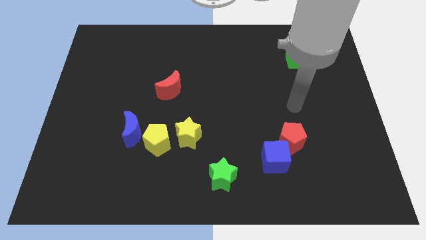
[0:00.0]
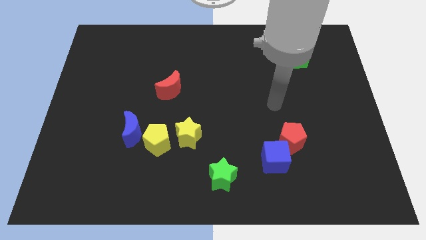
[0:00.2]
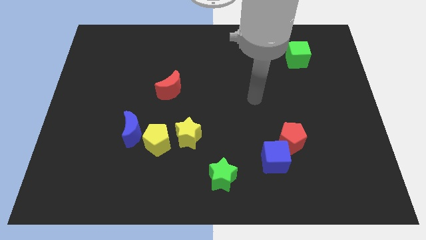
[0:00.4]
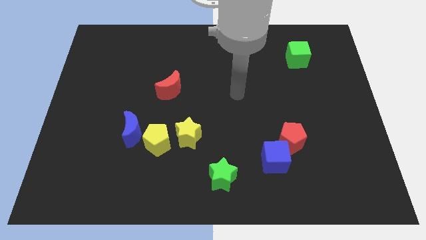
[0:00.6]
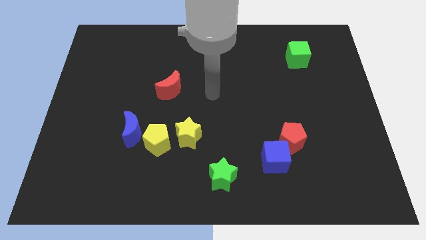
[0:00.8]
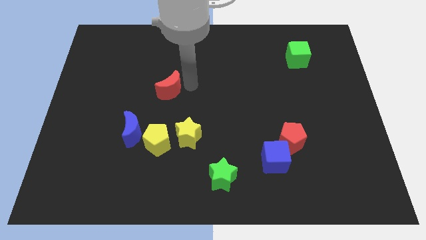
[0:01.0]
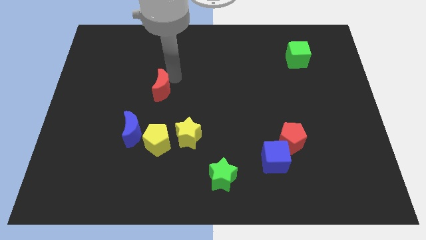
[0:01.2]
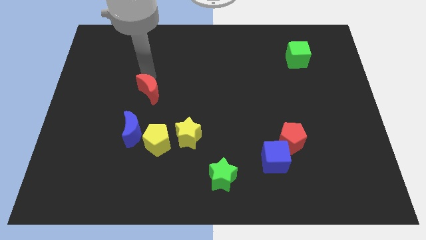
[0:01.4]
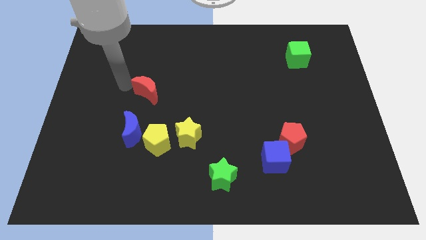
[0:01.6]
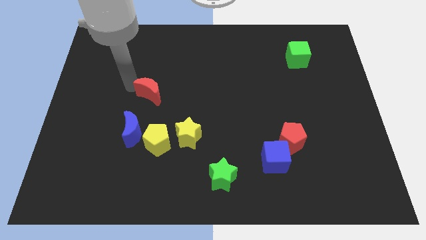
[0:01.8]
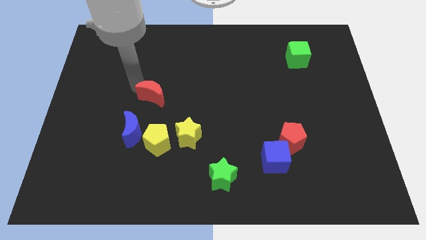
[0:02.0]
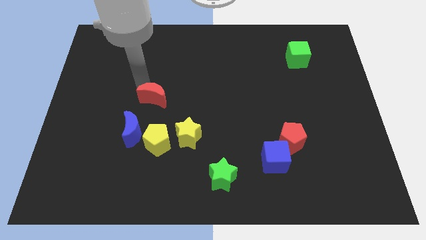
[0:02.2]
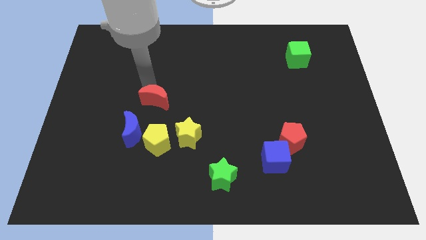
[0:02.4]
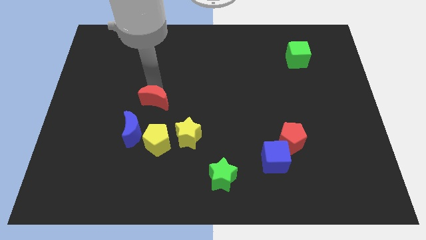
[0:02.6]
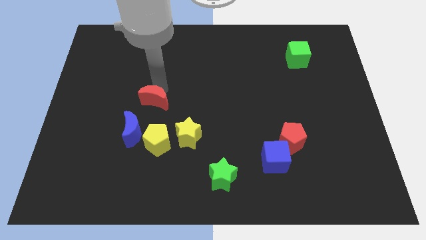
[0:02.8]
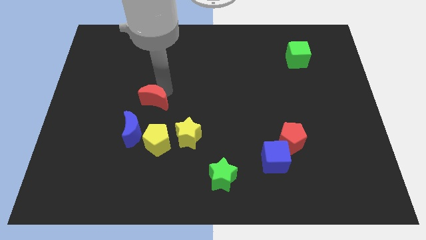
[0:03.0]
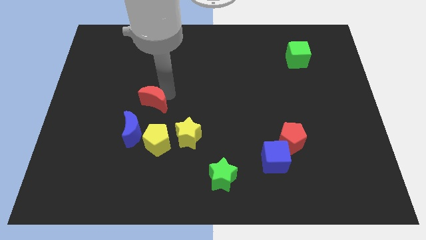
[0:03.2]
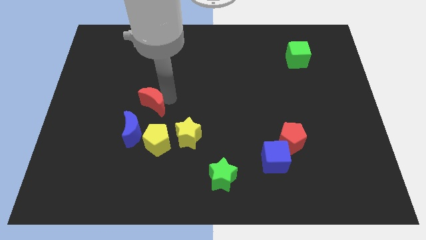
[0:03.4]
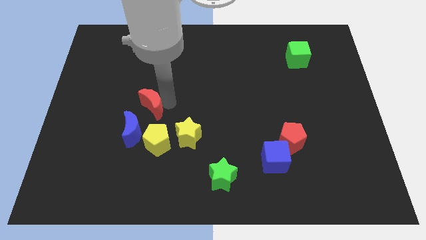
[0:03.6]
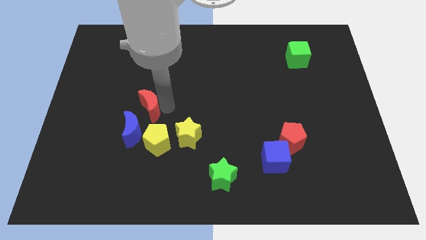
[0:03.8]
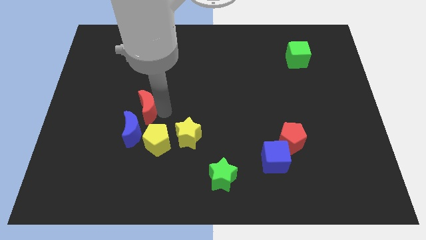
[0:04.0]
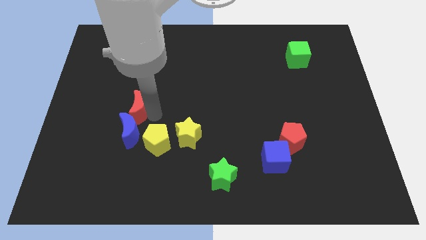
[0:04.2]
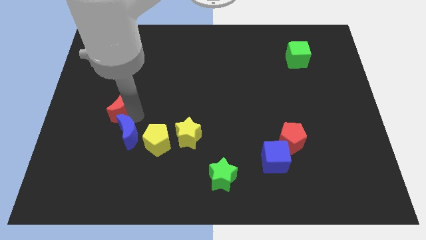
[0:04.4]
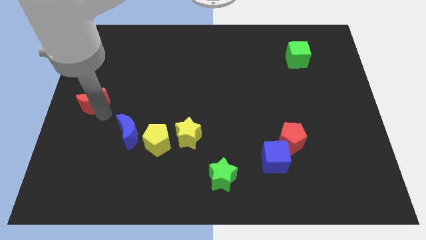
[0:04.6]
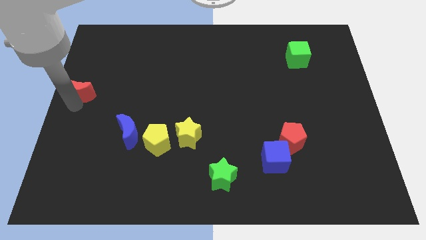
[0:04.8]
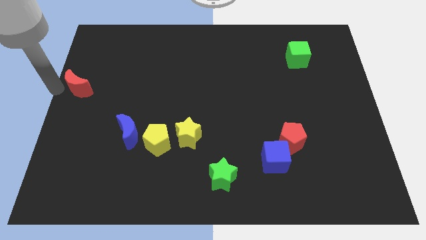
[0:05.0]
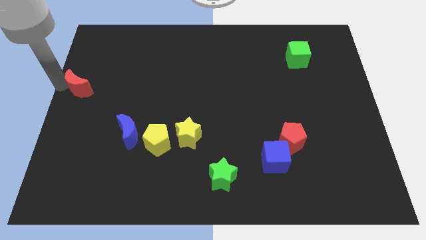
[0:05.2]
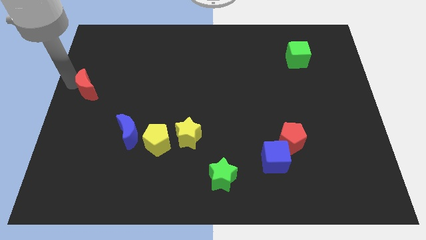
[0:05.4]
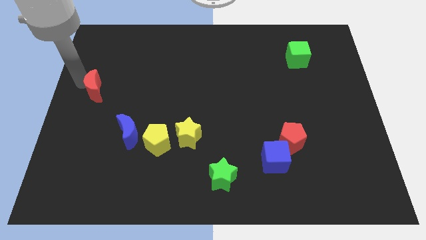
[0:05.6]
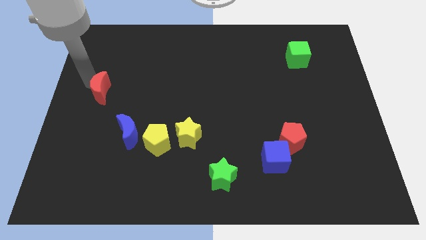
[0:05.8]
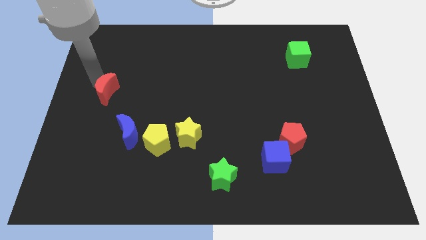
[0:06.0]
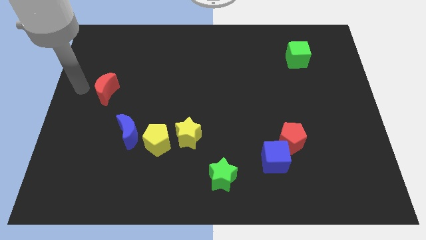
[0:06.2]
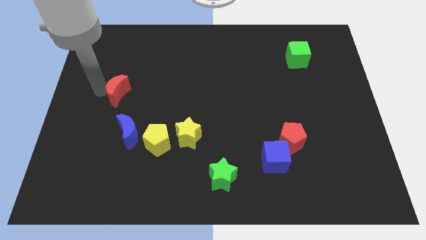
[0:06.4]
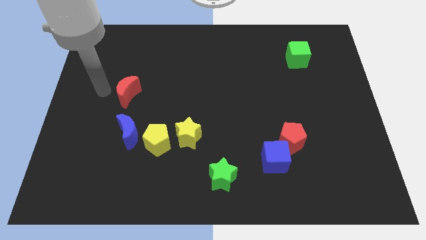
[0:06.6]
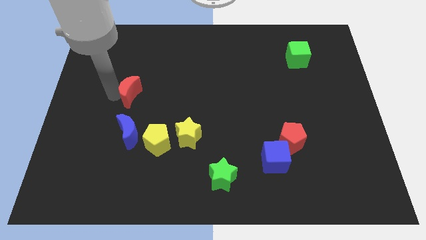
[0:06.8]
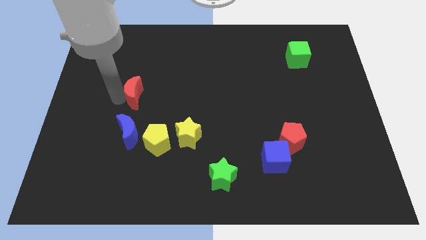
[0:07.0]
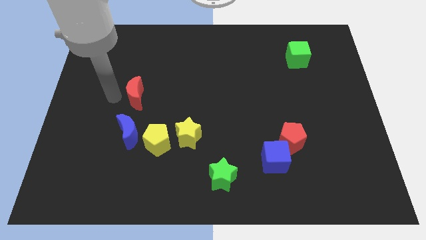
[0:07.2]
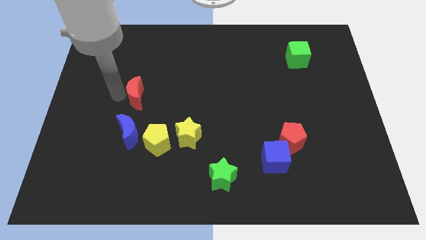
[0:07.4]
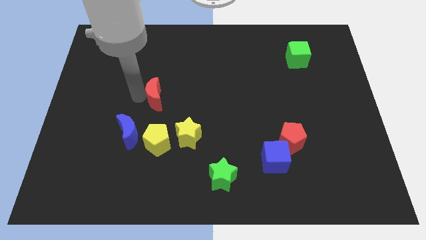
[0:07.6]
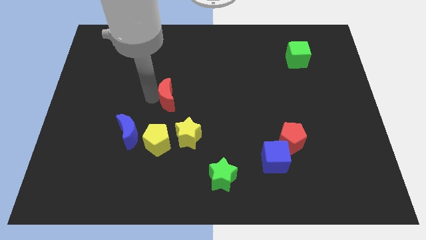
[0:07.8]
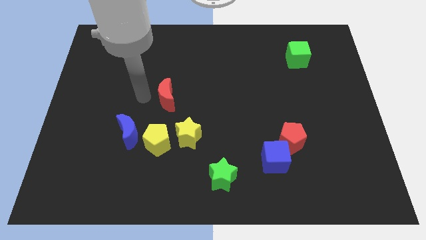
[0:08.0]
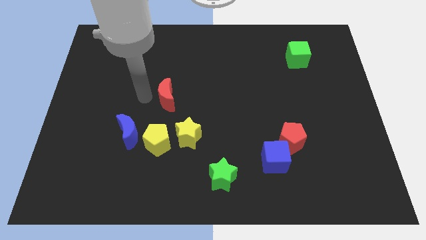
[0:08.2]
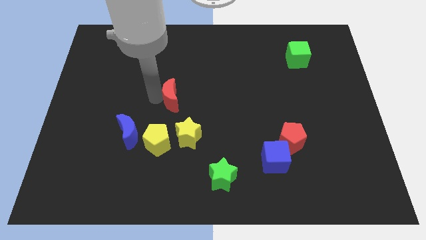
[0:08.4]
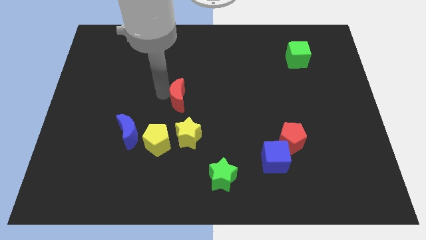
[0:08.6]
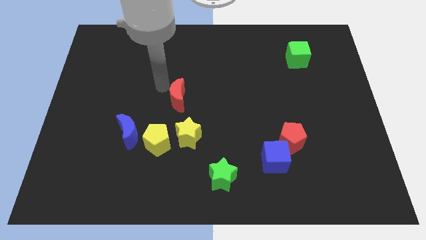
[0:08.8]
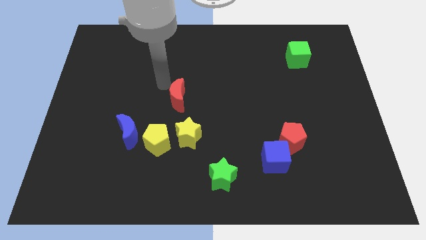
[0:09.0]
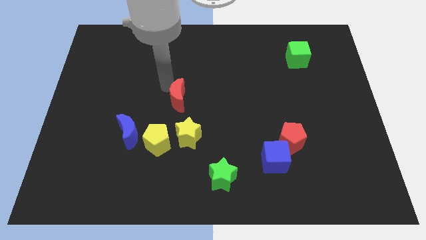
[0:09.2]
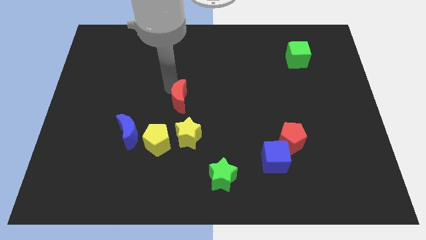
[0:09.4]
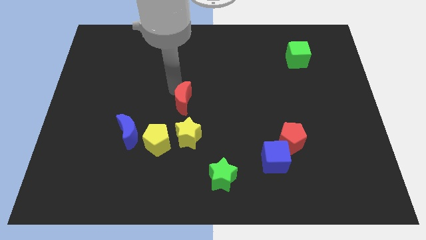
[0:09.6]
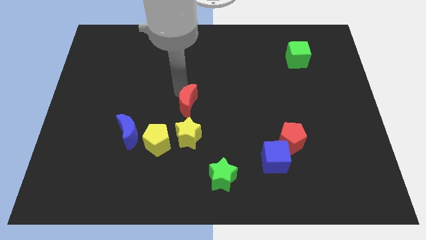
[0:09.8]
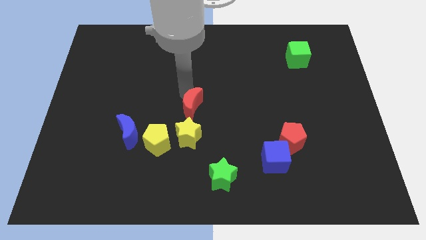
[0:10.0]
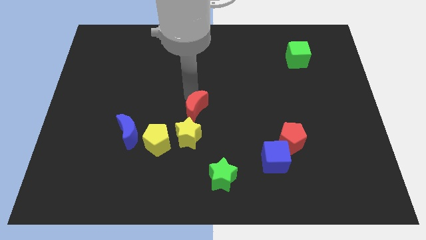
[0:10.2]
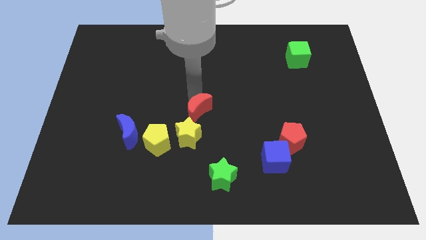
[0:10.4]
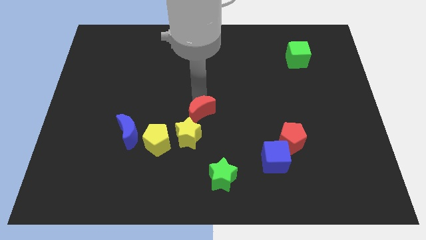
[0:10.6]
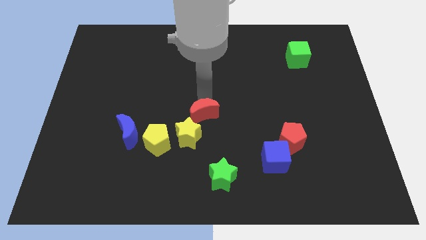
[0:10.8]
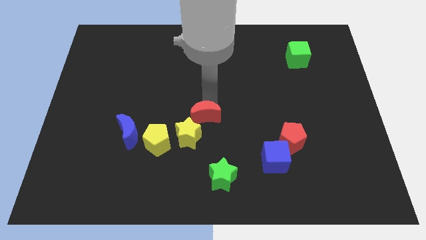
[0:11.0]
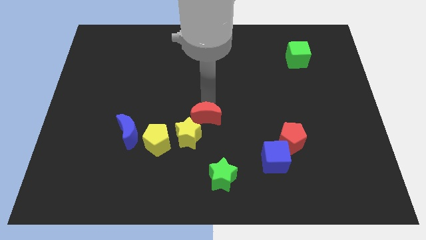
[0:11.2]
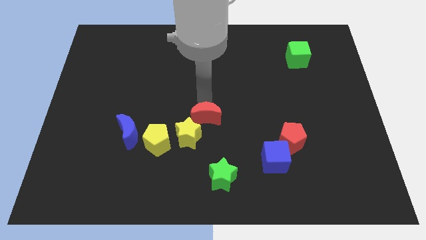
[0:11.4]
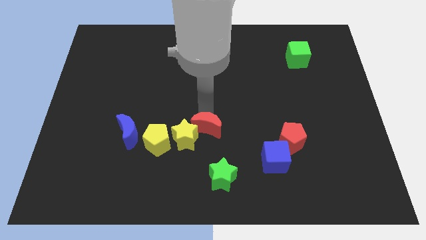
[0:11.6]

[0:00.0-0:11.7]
slide the red moon down slightly

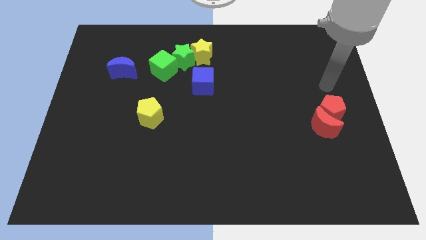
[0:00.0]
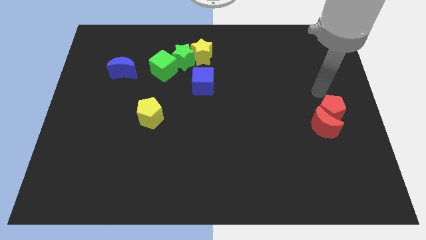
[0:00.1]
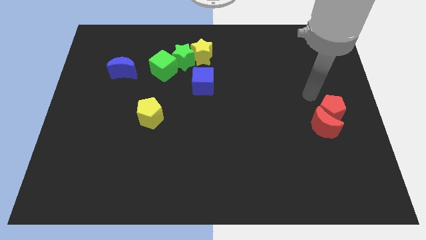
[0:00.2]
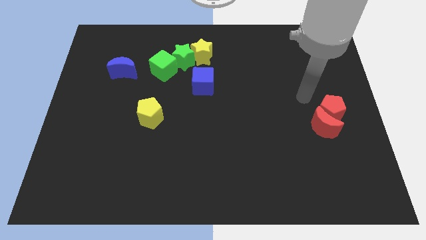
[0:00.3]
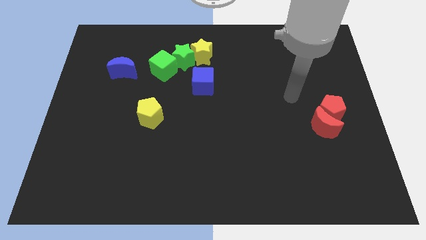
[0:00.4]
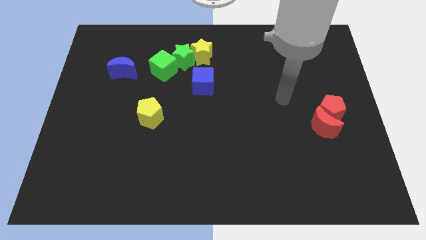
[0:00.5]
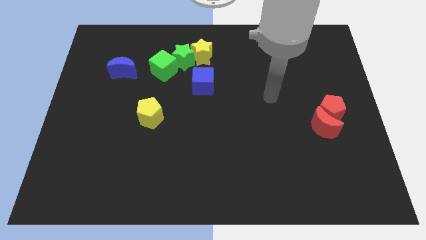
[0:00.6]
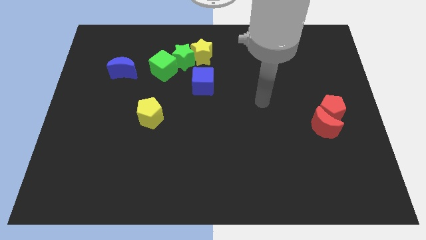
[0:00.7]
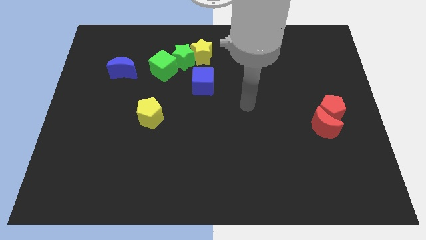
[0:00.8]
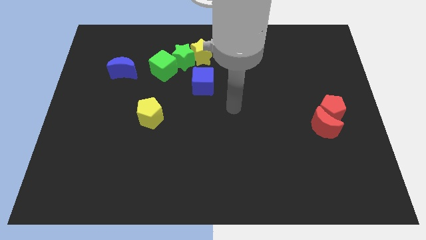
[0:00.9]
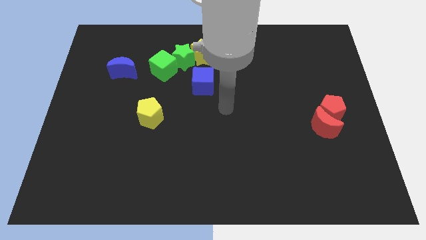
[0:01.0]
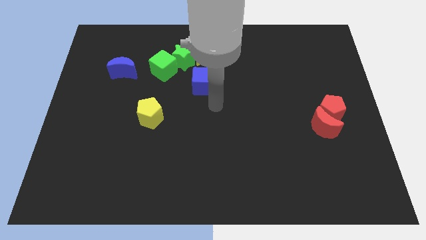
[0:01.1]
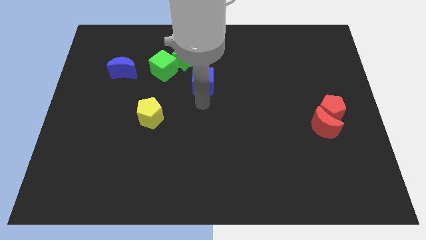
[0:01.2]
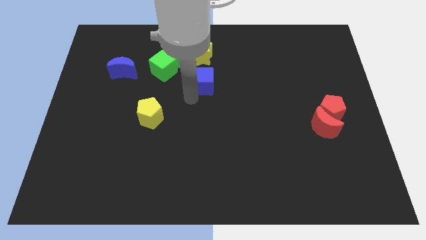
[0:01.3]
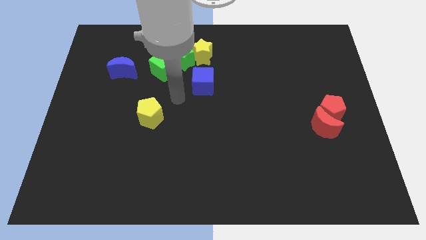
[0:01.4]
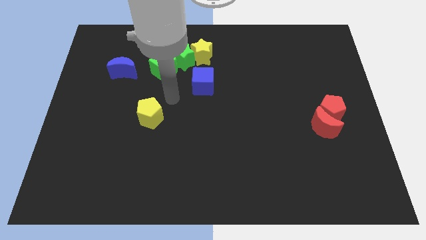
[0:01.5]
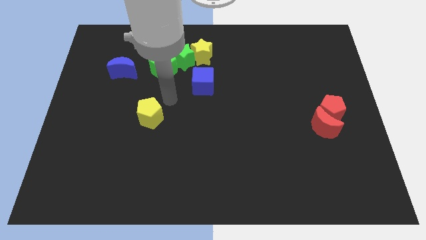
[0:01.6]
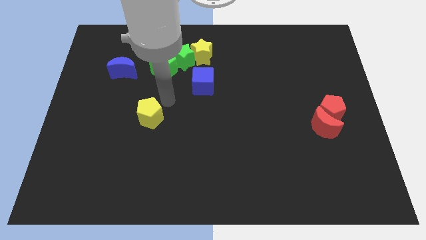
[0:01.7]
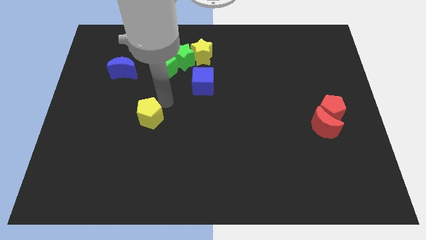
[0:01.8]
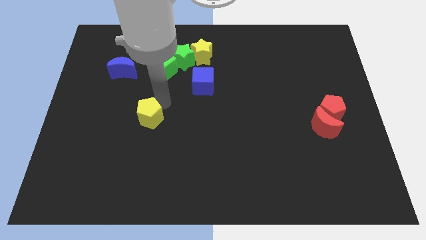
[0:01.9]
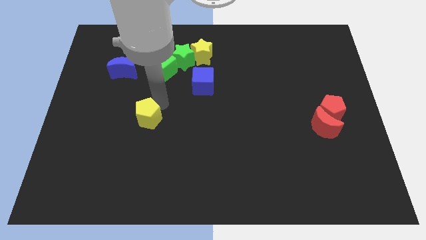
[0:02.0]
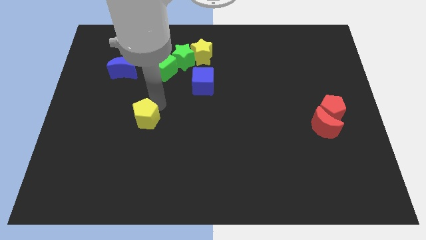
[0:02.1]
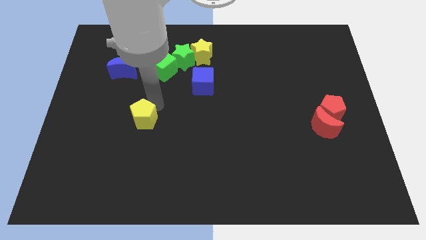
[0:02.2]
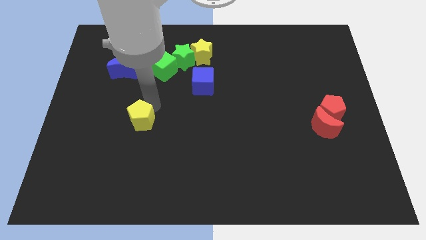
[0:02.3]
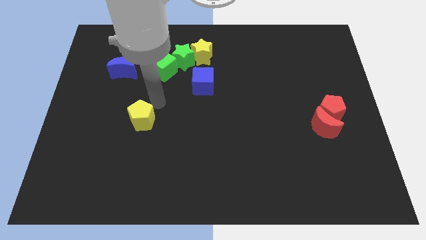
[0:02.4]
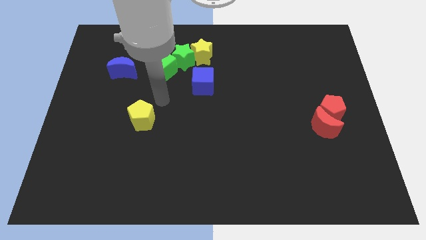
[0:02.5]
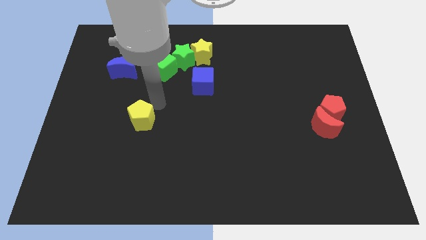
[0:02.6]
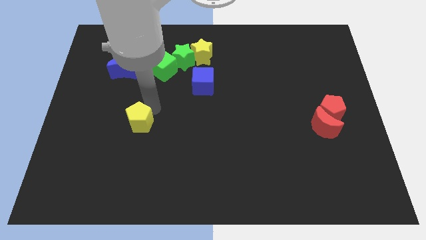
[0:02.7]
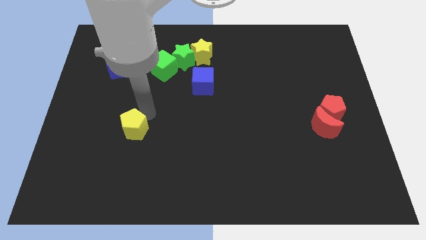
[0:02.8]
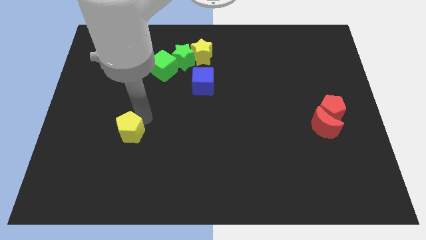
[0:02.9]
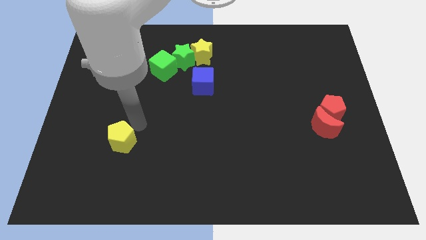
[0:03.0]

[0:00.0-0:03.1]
move the yellow pentagon a little down and to the left
